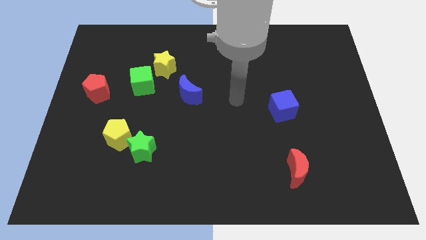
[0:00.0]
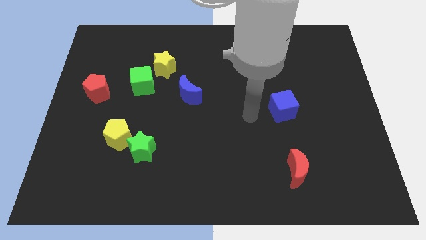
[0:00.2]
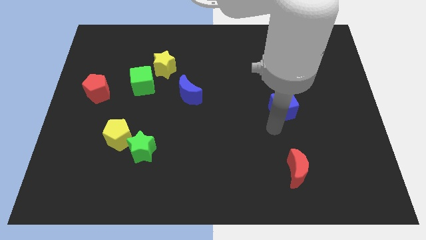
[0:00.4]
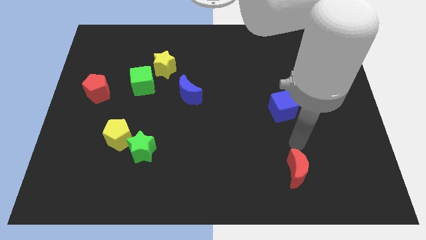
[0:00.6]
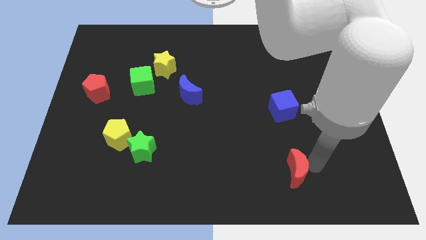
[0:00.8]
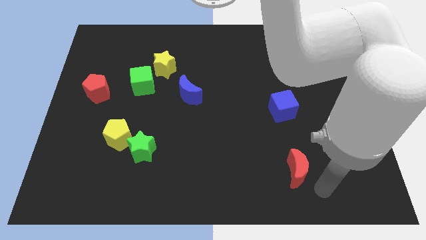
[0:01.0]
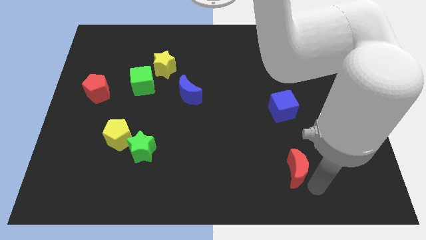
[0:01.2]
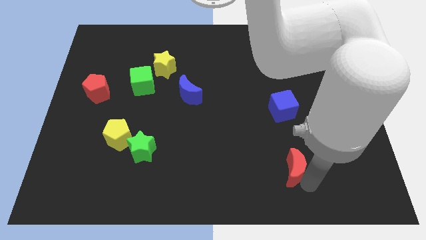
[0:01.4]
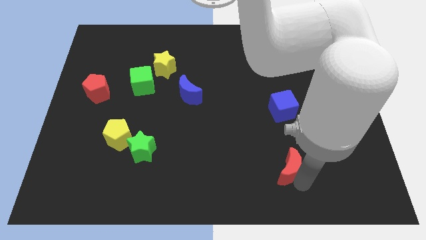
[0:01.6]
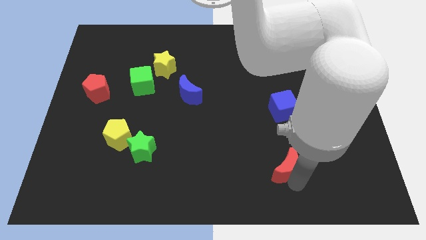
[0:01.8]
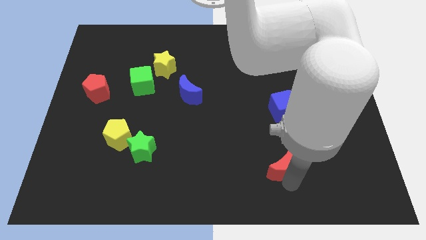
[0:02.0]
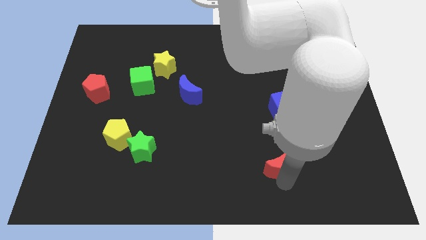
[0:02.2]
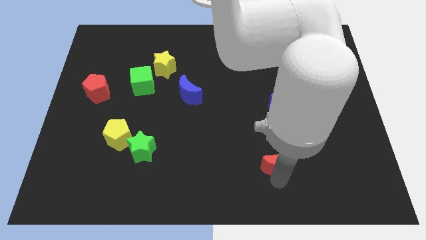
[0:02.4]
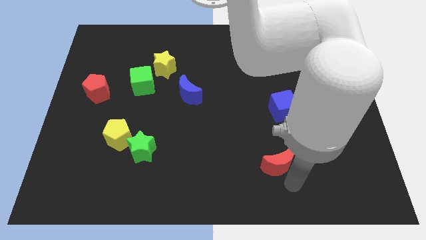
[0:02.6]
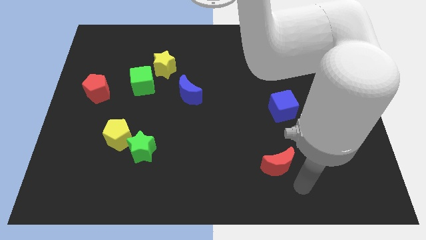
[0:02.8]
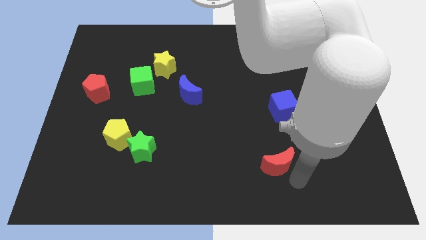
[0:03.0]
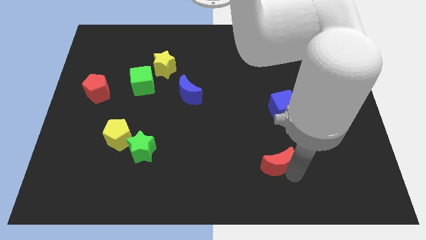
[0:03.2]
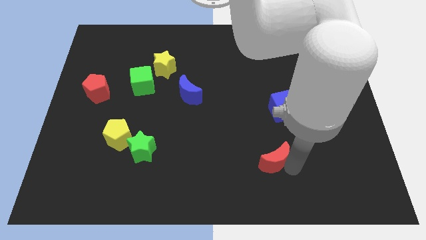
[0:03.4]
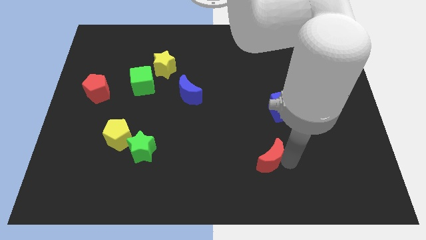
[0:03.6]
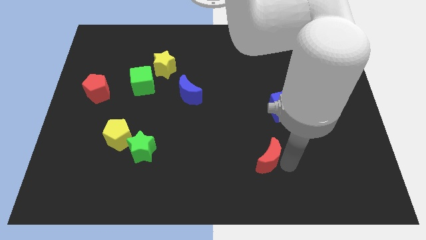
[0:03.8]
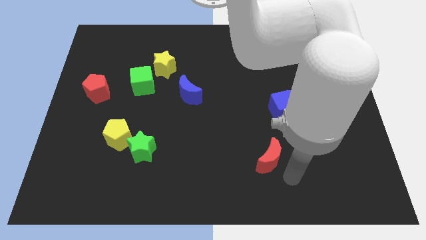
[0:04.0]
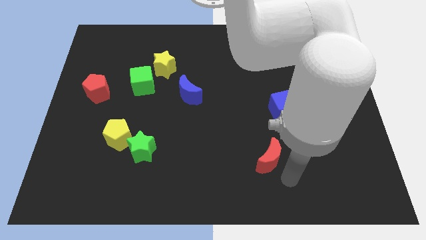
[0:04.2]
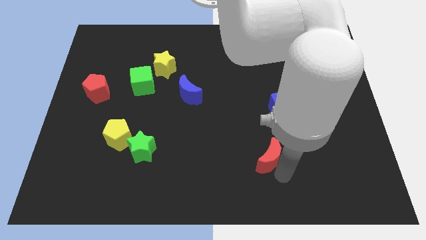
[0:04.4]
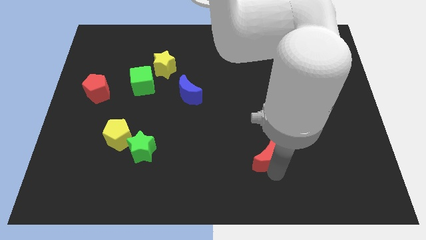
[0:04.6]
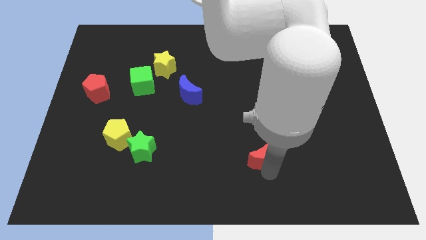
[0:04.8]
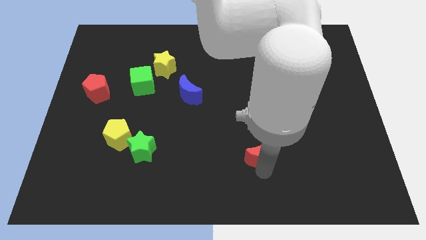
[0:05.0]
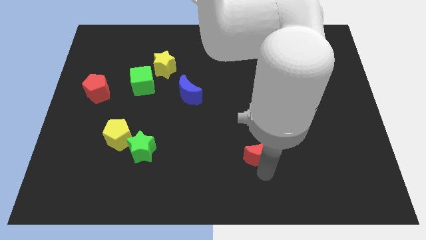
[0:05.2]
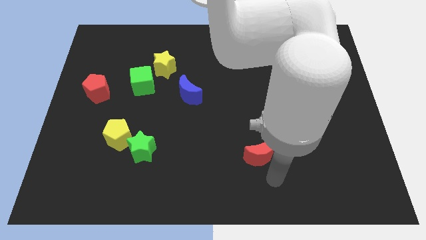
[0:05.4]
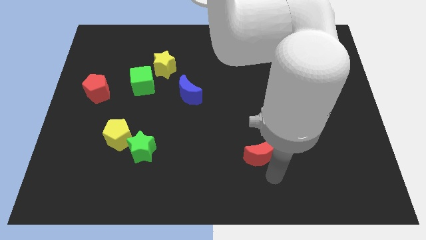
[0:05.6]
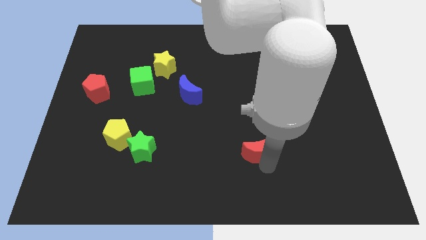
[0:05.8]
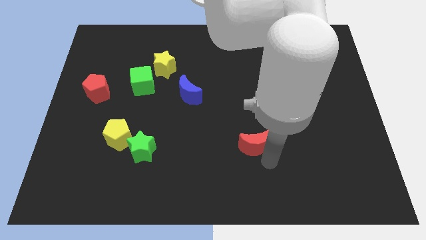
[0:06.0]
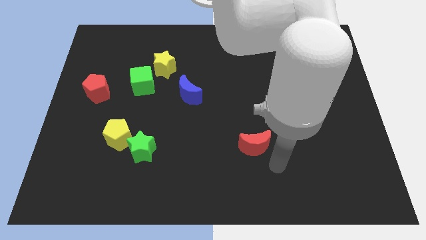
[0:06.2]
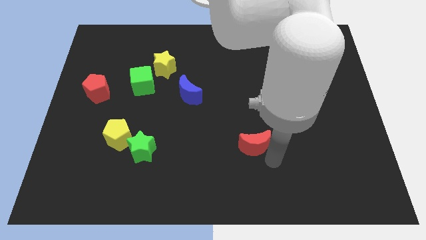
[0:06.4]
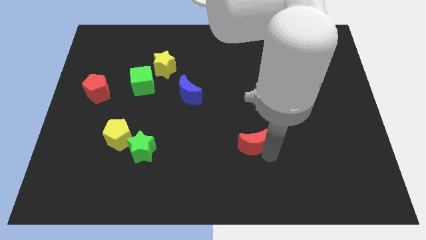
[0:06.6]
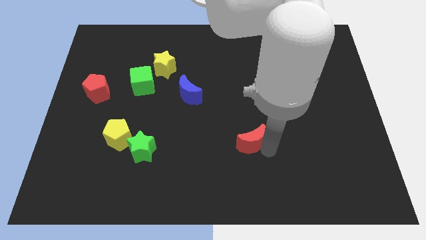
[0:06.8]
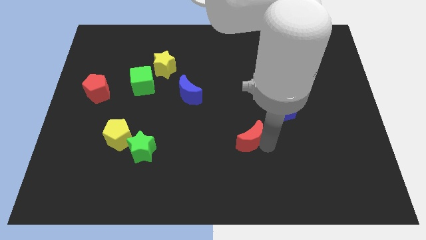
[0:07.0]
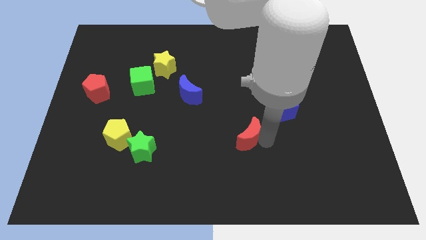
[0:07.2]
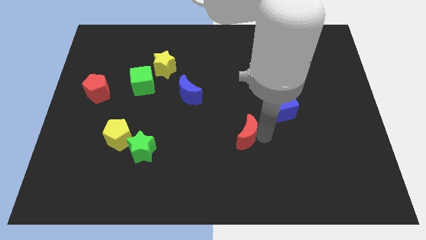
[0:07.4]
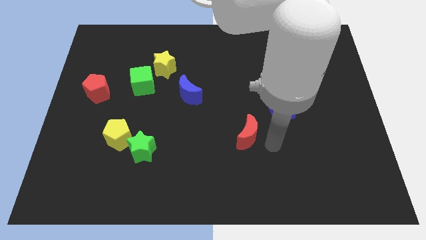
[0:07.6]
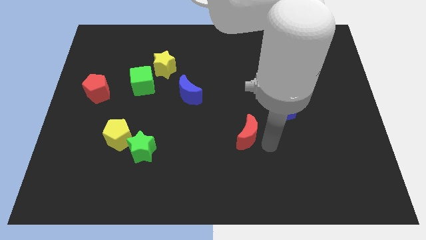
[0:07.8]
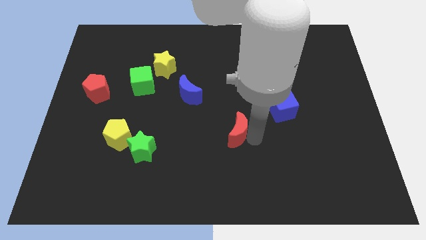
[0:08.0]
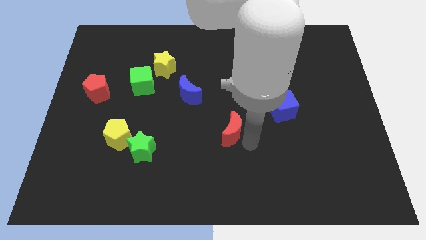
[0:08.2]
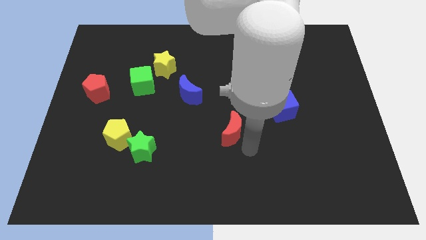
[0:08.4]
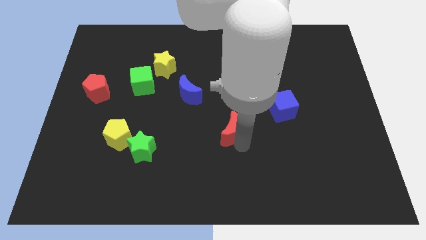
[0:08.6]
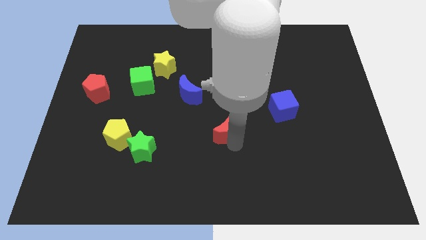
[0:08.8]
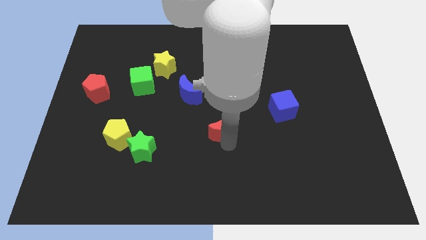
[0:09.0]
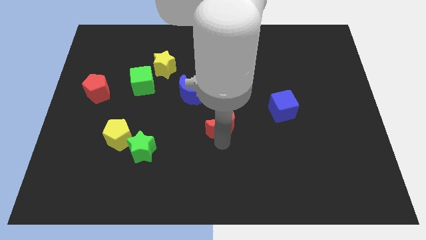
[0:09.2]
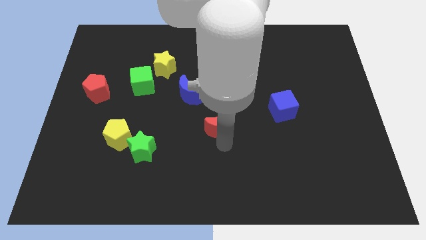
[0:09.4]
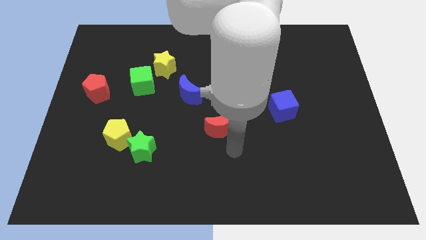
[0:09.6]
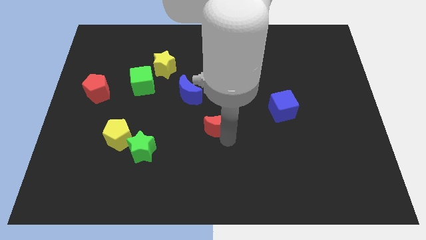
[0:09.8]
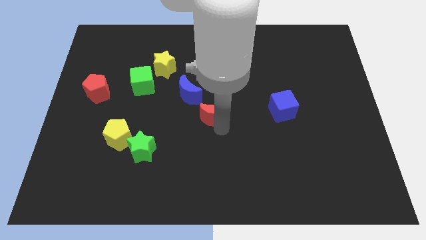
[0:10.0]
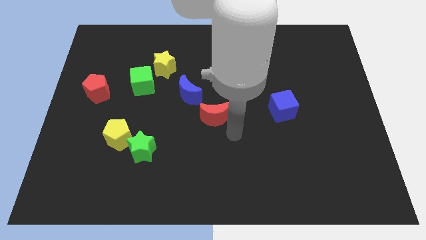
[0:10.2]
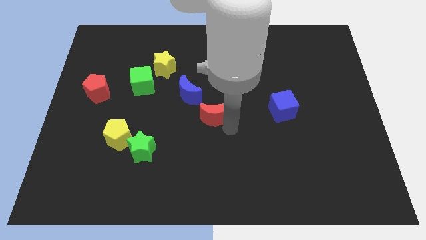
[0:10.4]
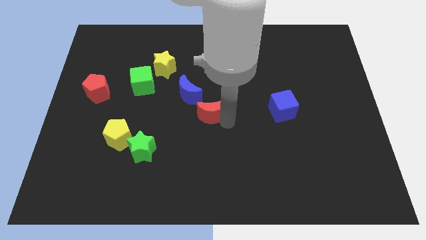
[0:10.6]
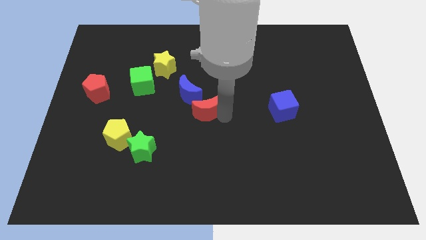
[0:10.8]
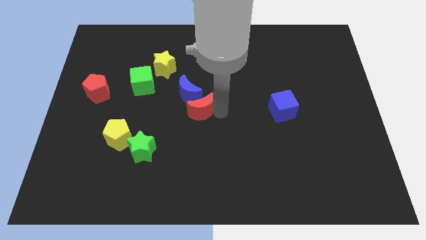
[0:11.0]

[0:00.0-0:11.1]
put the red moon to the blue moon

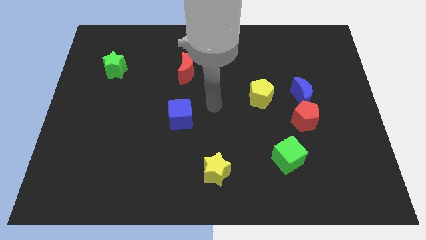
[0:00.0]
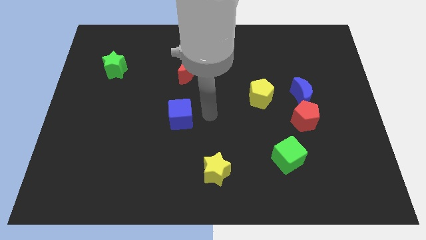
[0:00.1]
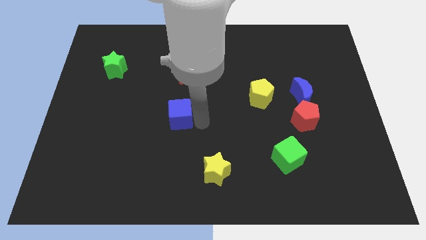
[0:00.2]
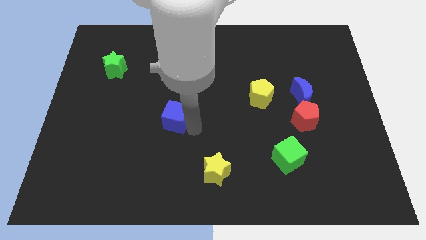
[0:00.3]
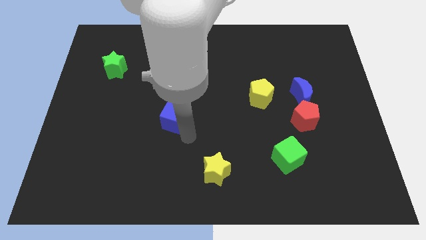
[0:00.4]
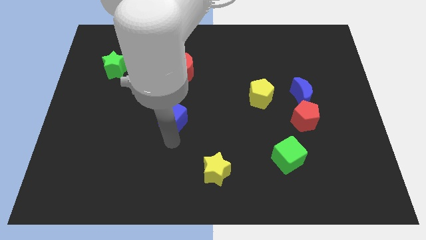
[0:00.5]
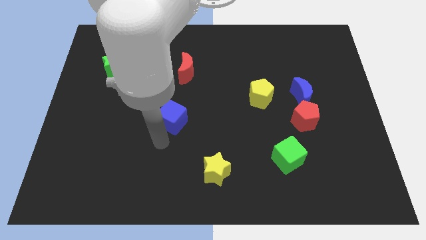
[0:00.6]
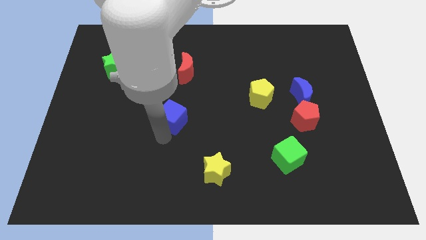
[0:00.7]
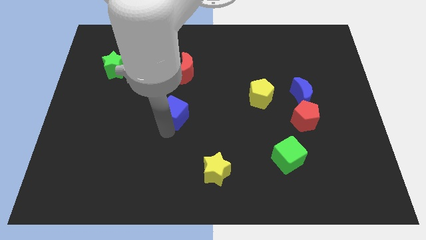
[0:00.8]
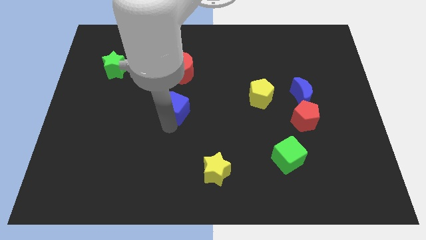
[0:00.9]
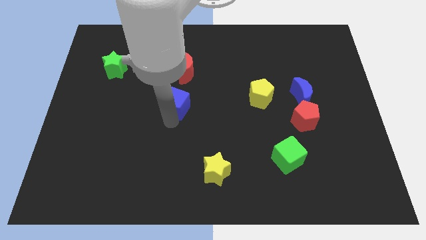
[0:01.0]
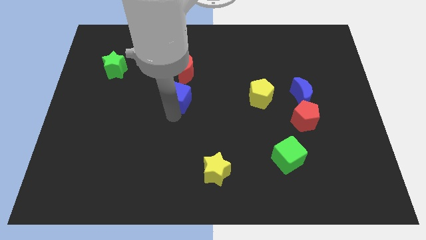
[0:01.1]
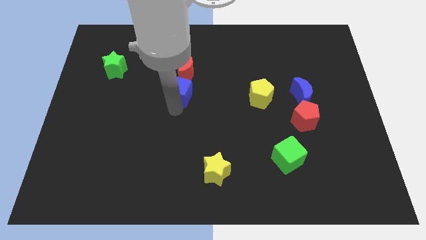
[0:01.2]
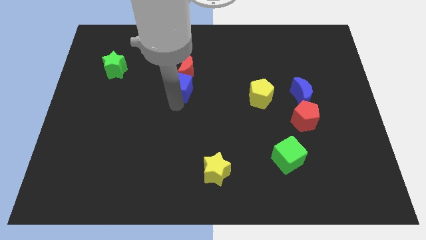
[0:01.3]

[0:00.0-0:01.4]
push the blue cube close to the red moon
